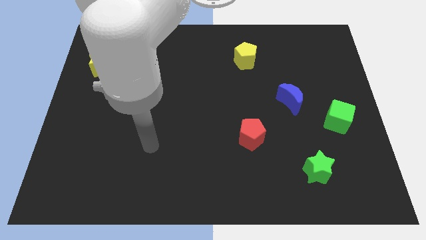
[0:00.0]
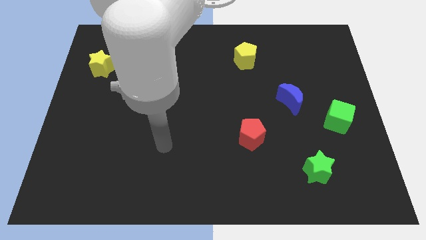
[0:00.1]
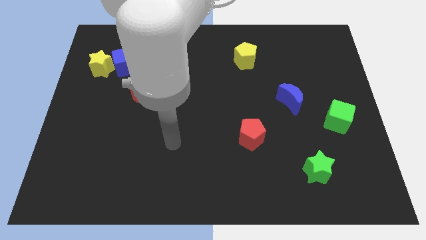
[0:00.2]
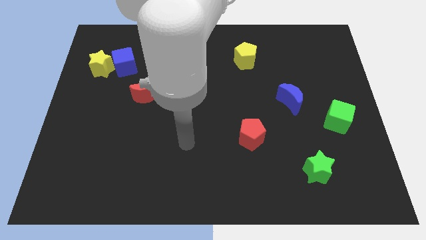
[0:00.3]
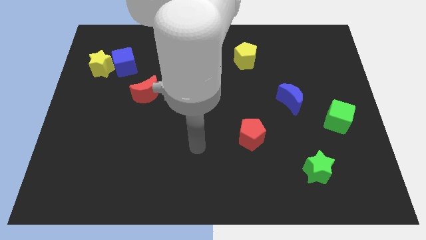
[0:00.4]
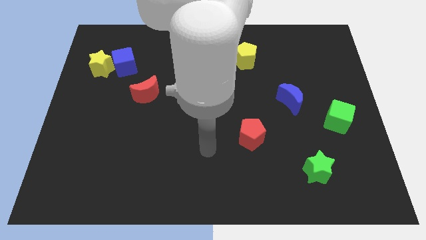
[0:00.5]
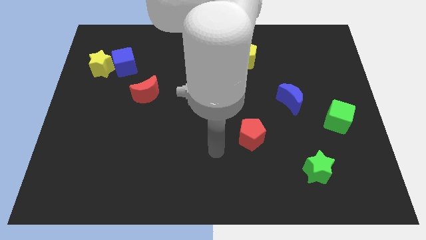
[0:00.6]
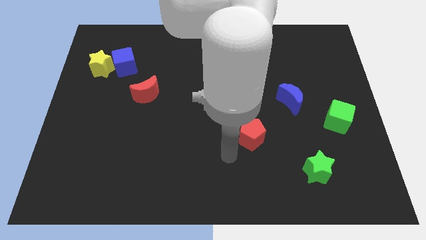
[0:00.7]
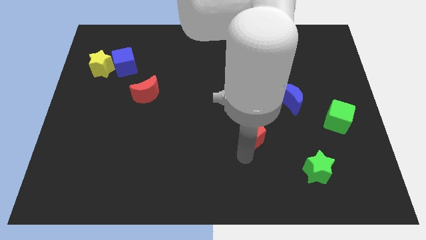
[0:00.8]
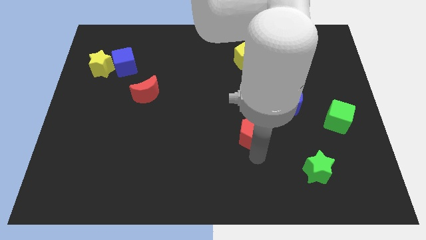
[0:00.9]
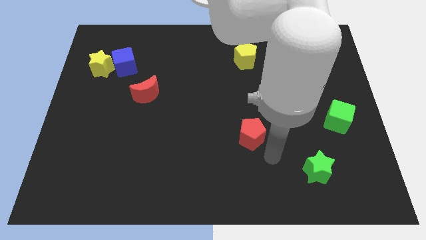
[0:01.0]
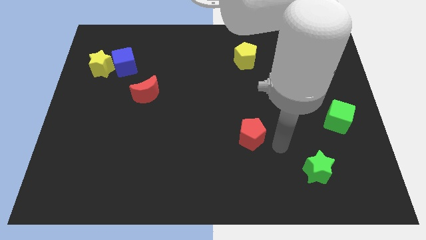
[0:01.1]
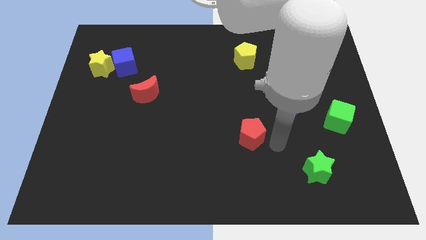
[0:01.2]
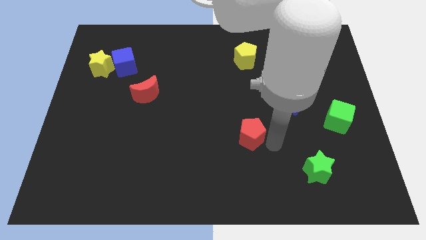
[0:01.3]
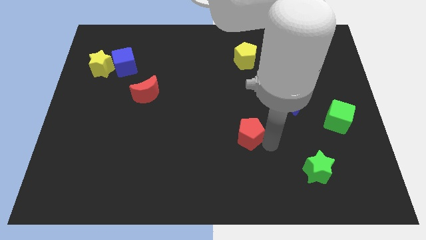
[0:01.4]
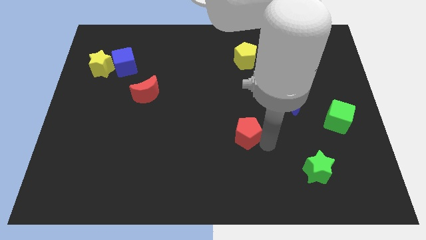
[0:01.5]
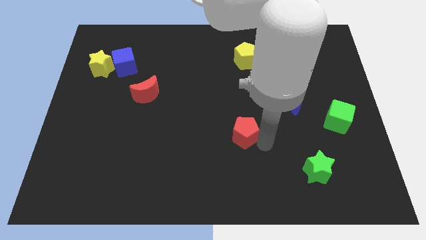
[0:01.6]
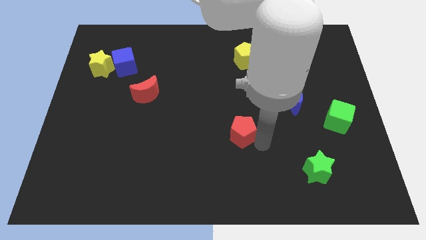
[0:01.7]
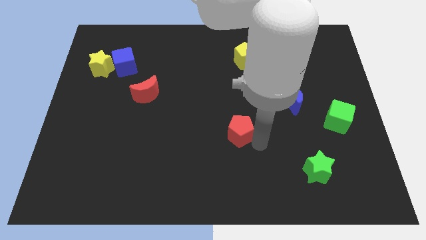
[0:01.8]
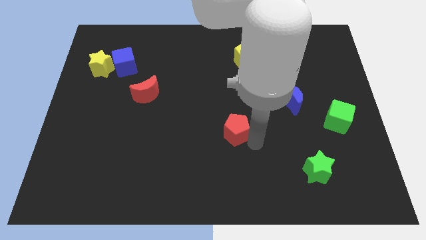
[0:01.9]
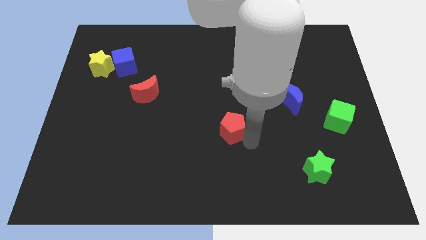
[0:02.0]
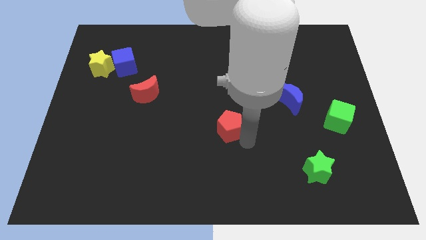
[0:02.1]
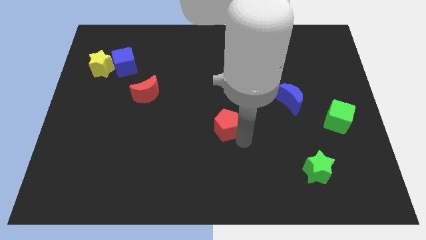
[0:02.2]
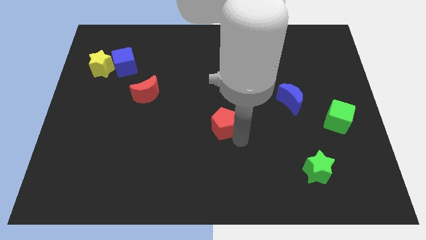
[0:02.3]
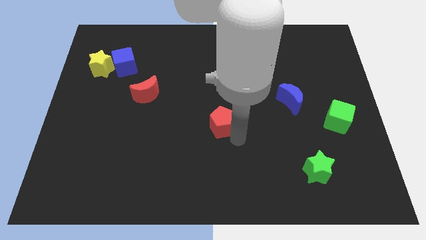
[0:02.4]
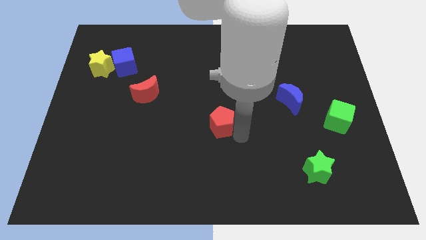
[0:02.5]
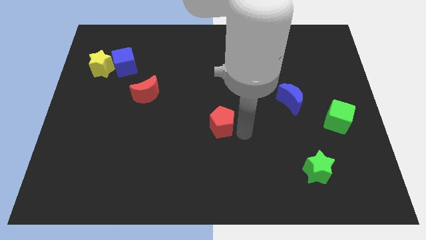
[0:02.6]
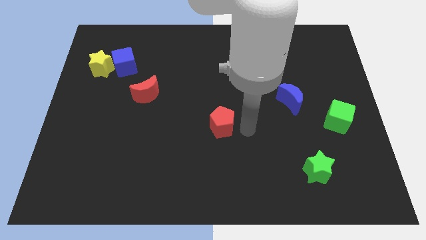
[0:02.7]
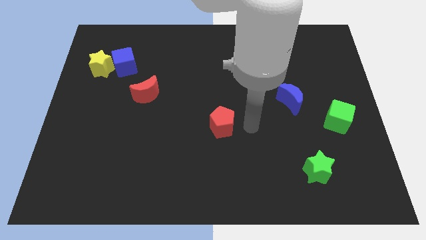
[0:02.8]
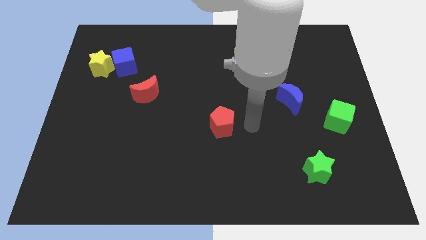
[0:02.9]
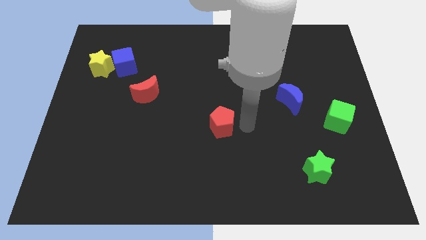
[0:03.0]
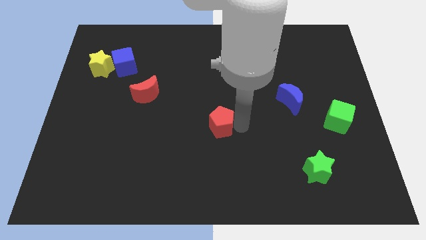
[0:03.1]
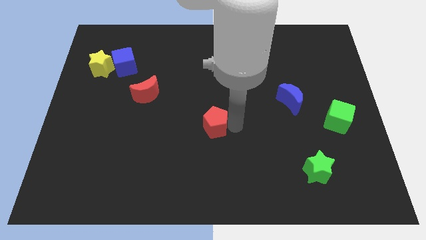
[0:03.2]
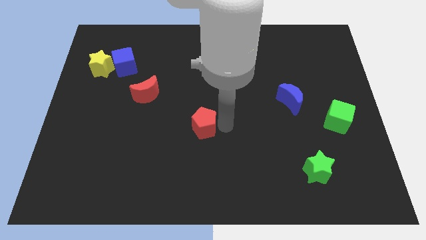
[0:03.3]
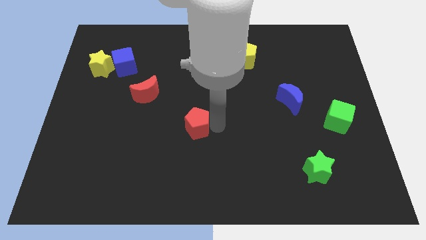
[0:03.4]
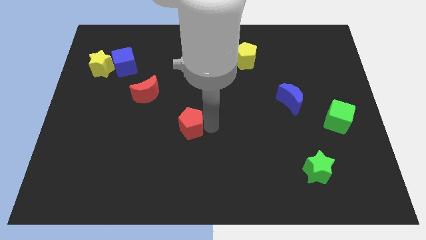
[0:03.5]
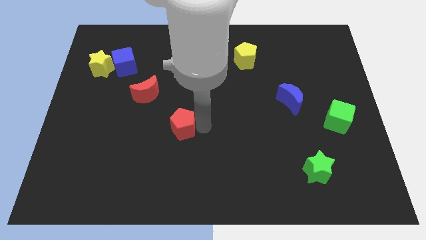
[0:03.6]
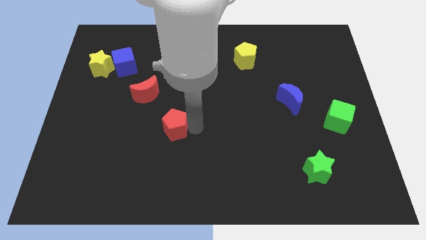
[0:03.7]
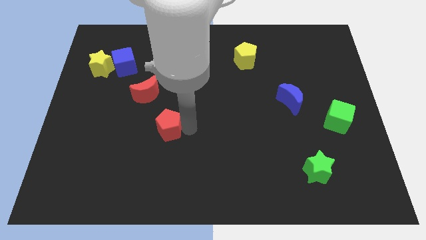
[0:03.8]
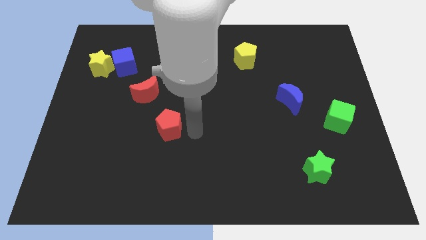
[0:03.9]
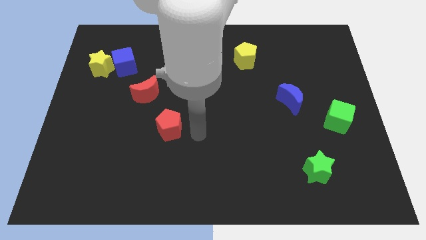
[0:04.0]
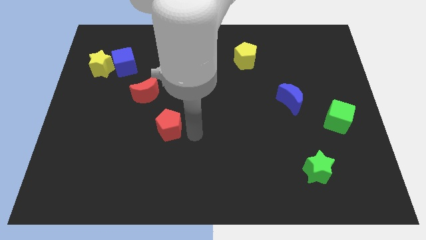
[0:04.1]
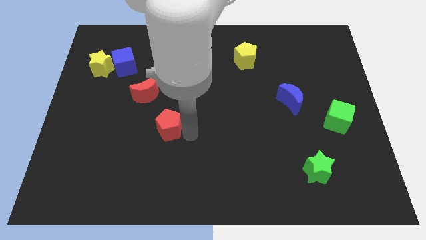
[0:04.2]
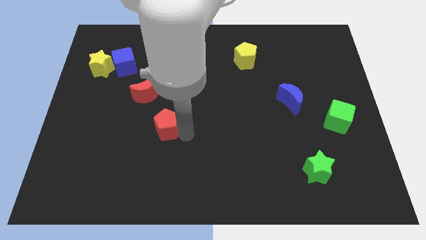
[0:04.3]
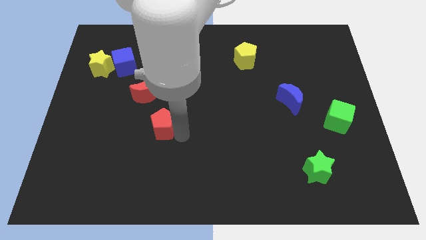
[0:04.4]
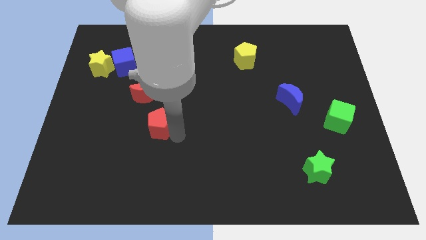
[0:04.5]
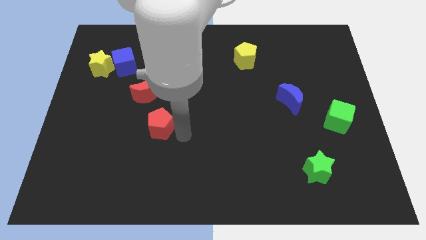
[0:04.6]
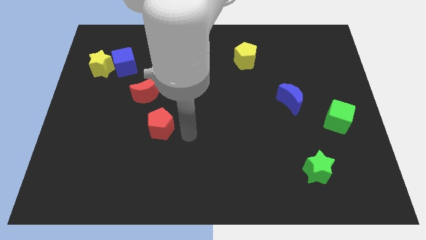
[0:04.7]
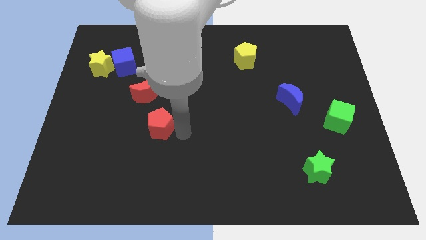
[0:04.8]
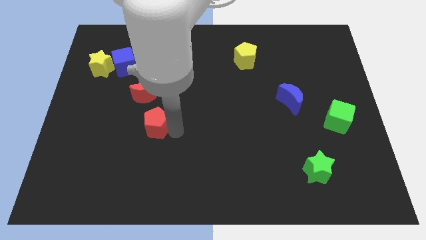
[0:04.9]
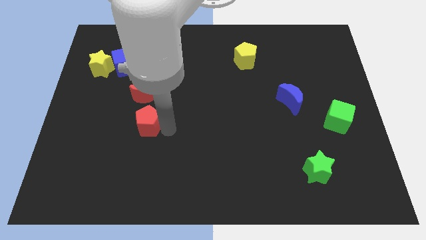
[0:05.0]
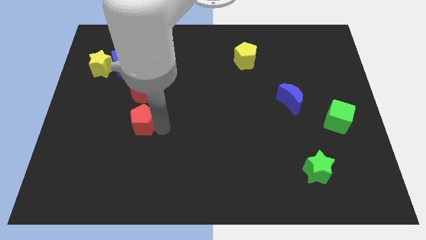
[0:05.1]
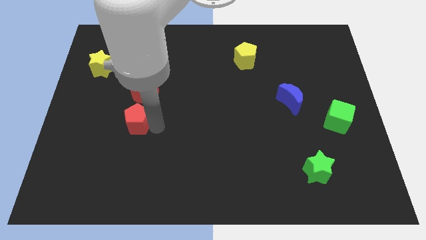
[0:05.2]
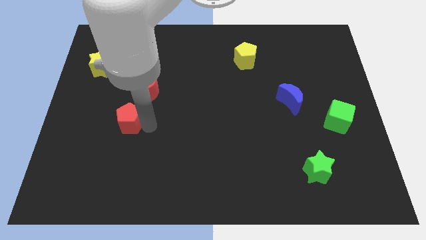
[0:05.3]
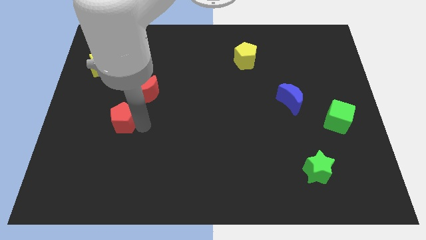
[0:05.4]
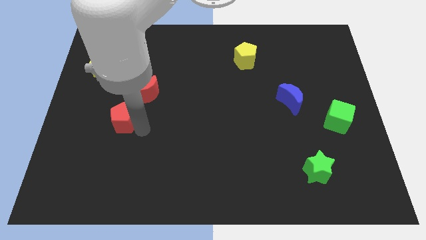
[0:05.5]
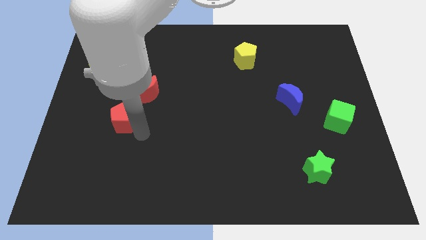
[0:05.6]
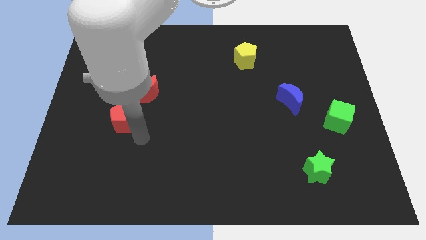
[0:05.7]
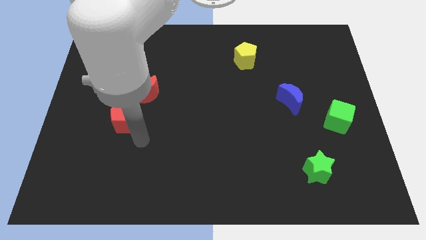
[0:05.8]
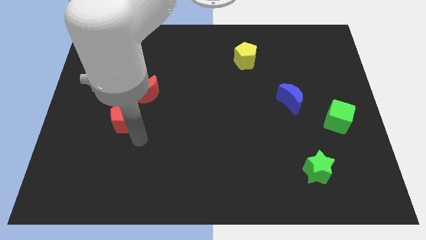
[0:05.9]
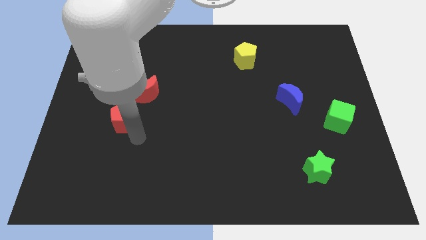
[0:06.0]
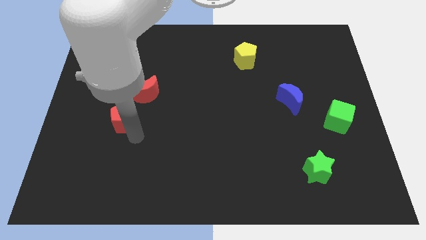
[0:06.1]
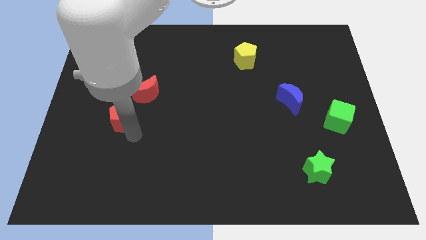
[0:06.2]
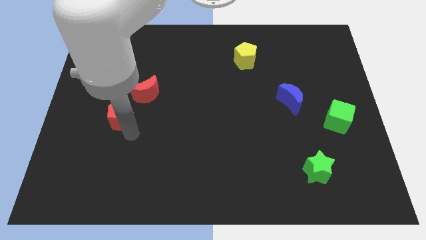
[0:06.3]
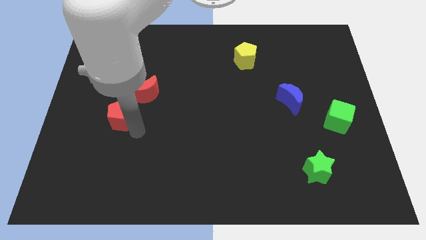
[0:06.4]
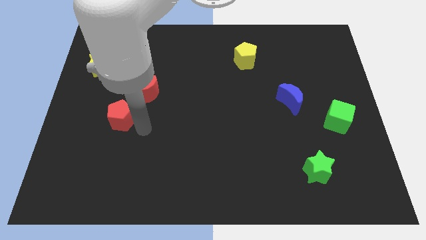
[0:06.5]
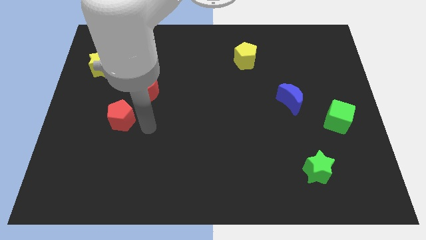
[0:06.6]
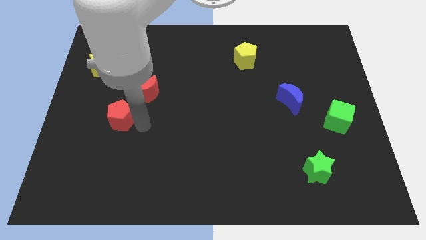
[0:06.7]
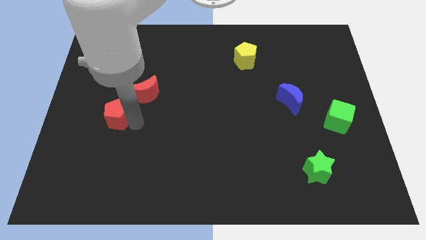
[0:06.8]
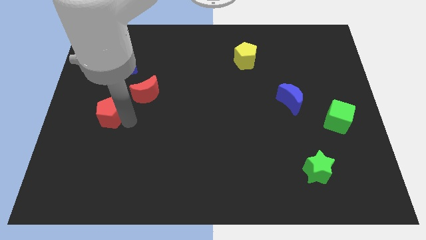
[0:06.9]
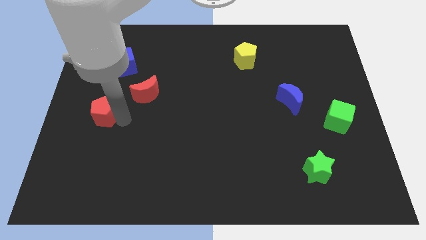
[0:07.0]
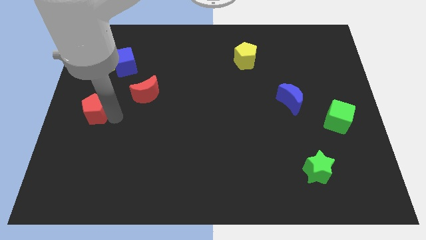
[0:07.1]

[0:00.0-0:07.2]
put the red pentagon to the center left
